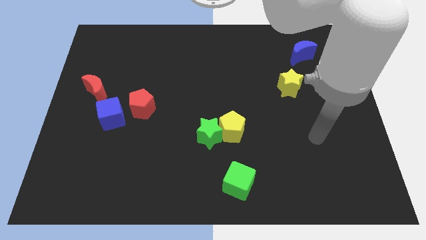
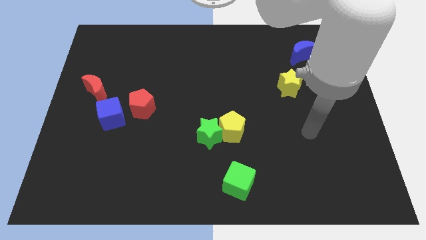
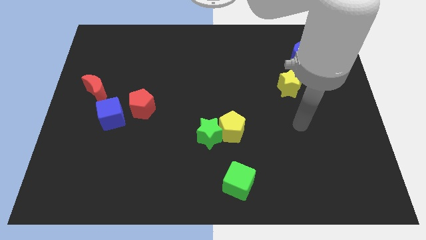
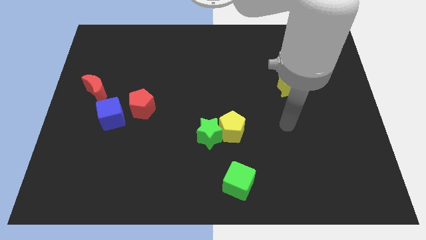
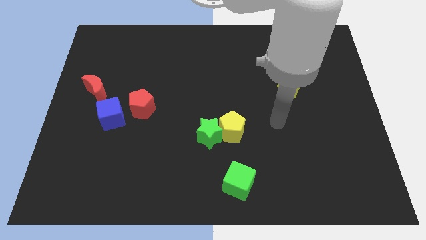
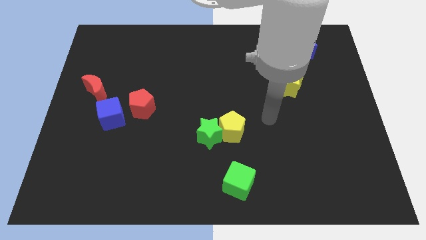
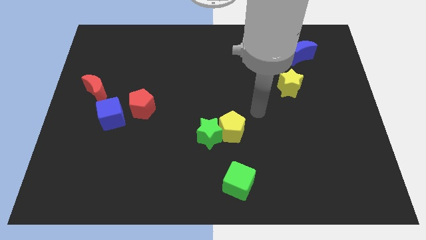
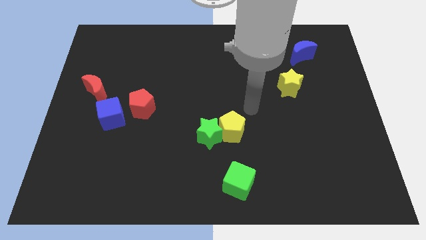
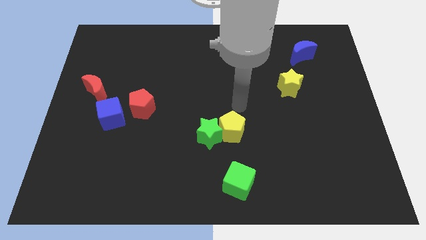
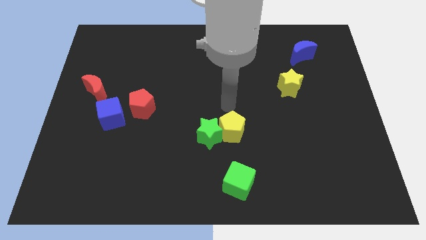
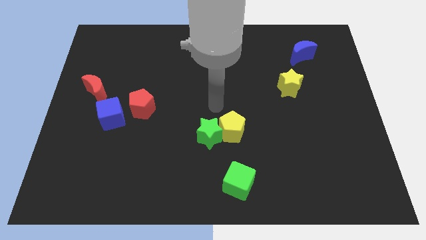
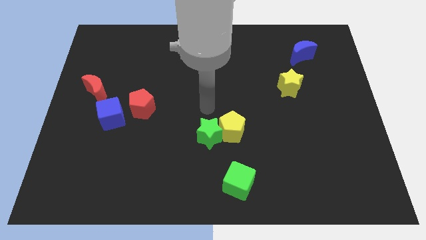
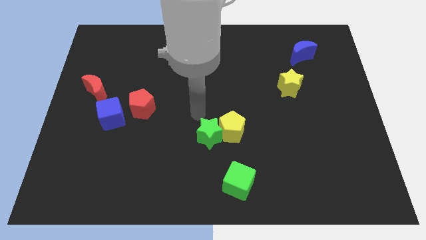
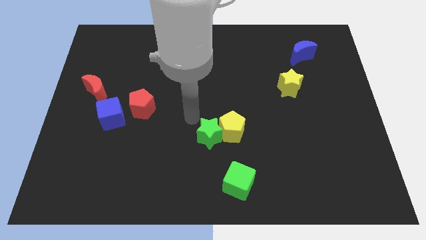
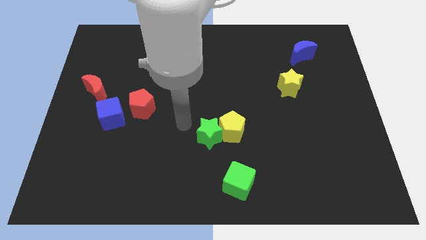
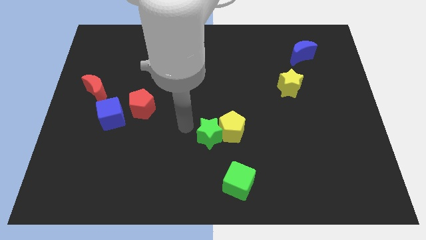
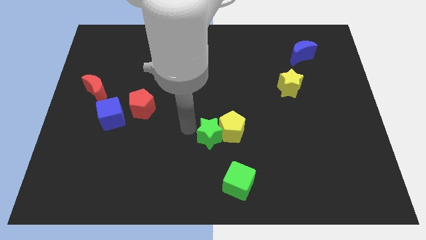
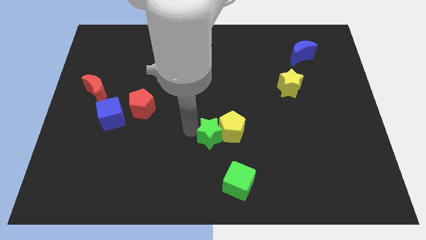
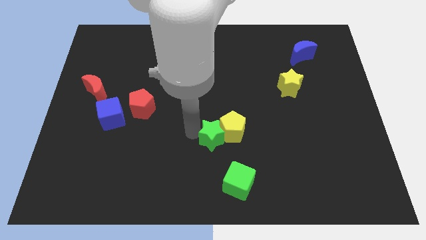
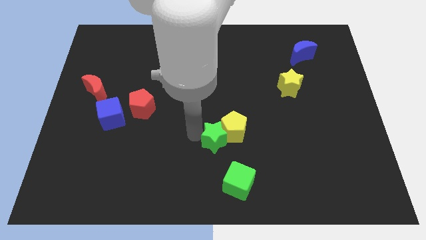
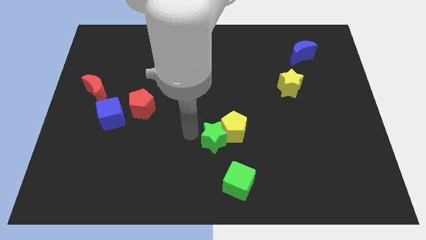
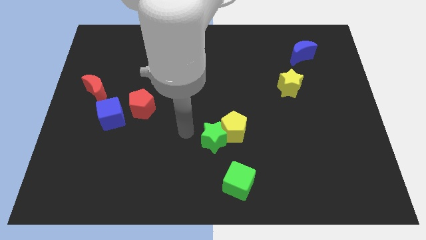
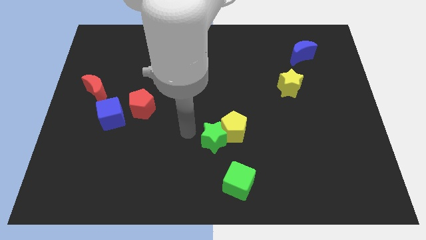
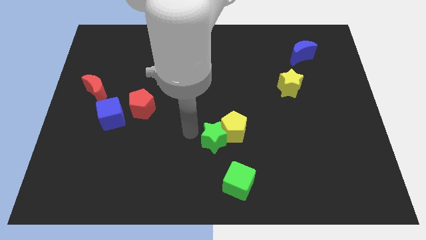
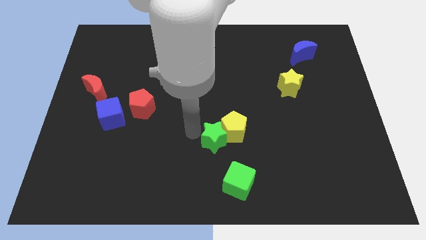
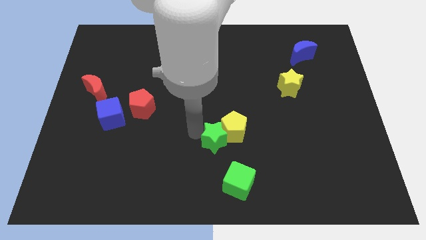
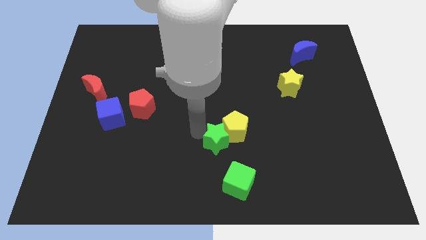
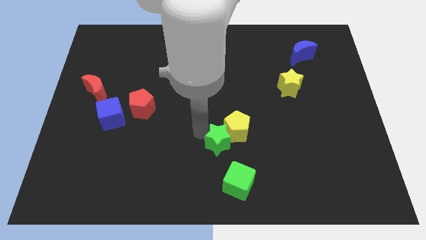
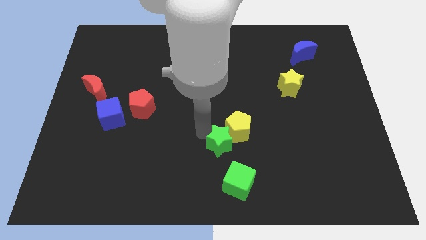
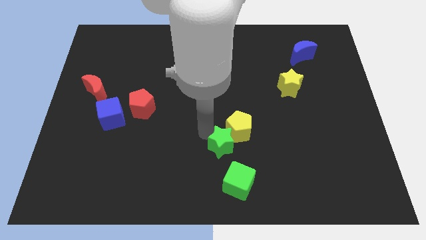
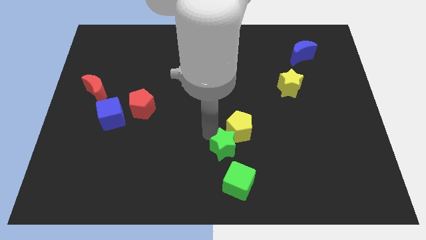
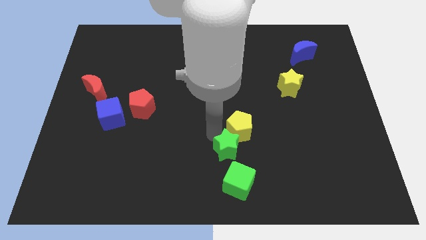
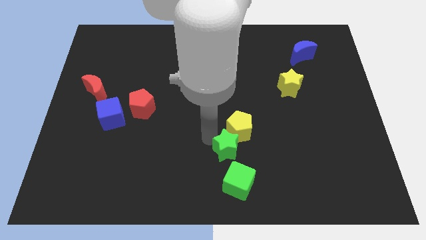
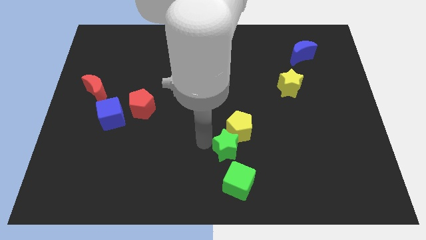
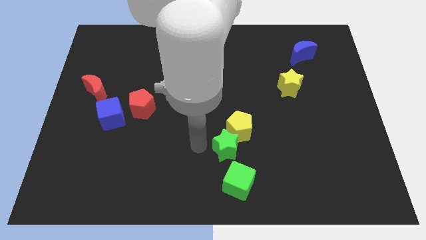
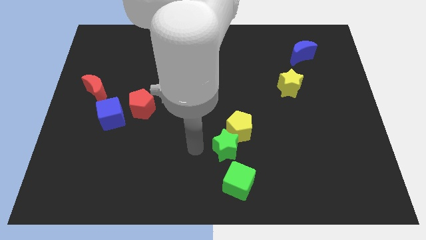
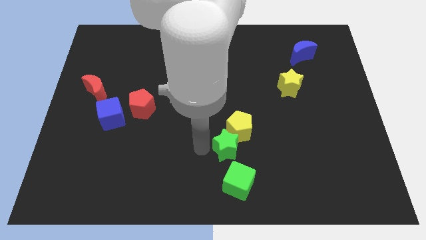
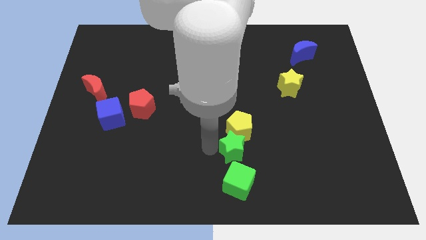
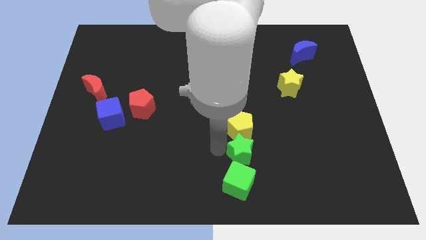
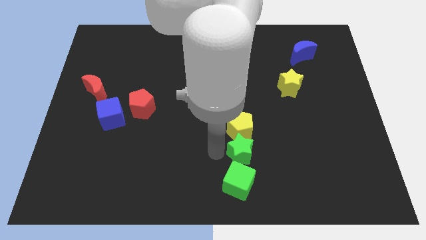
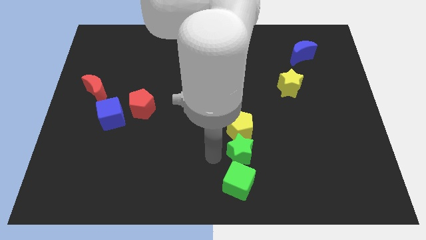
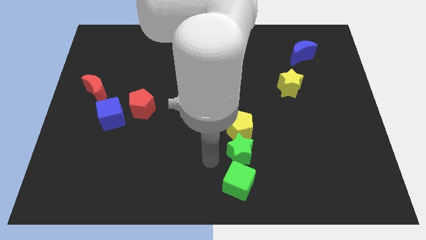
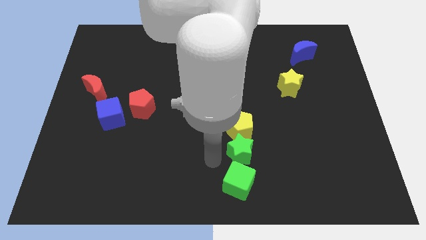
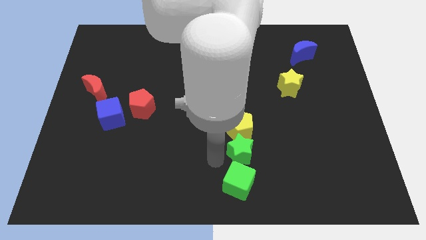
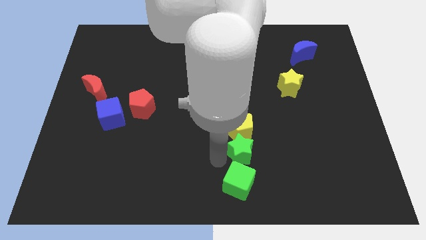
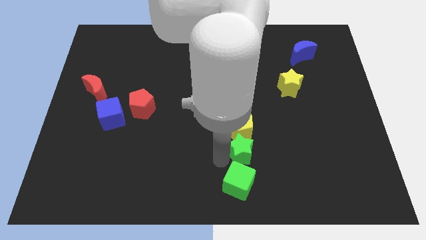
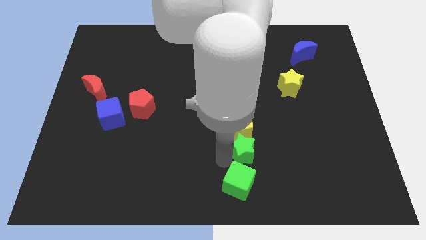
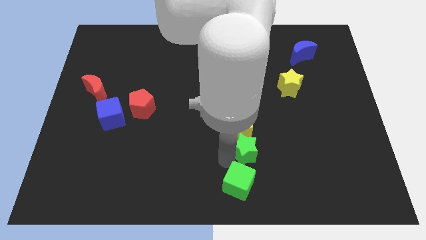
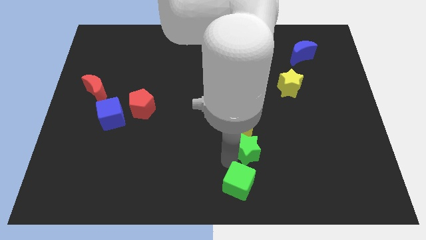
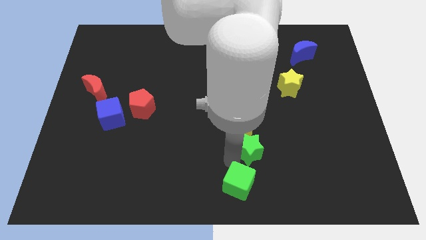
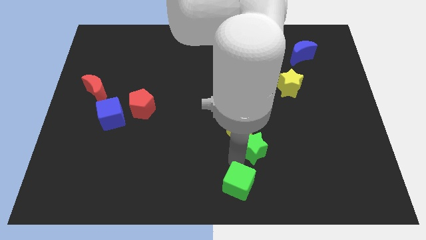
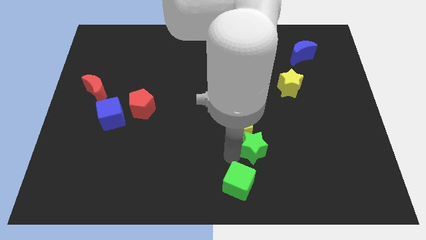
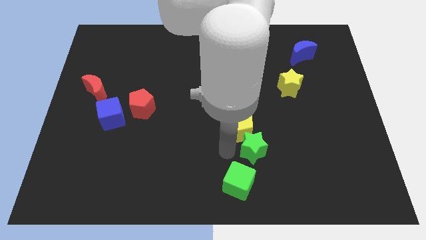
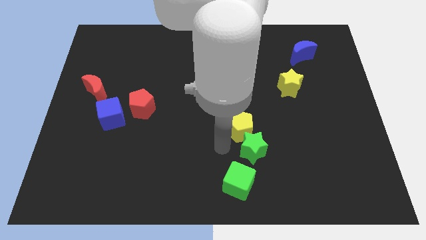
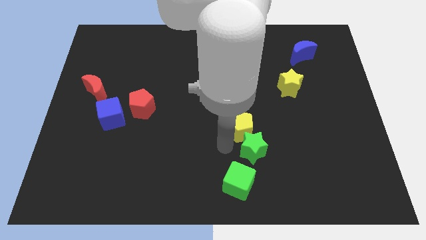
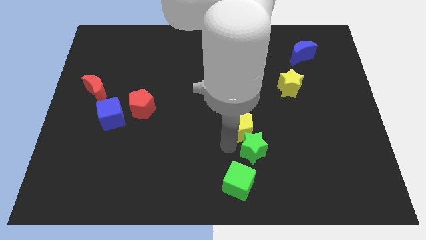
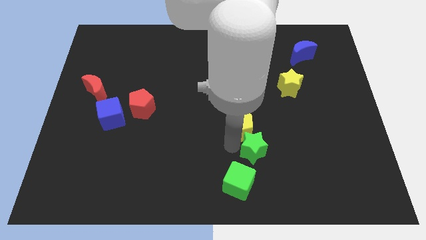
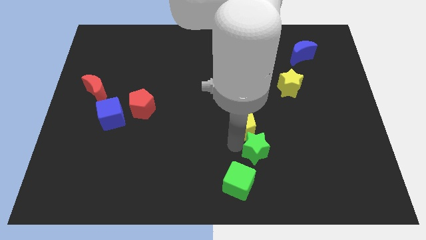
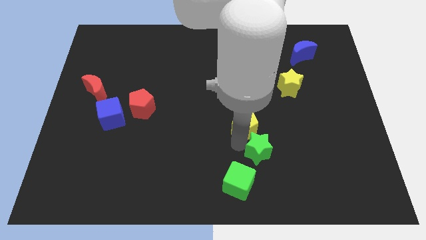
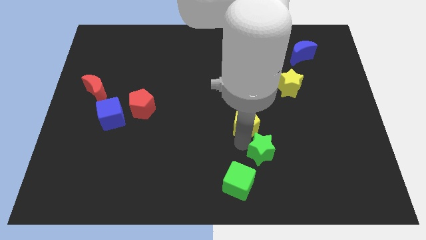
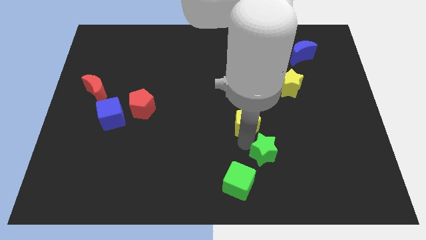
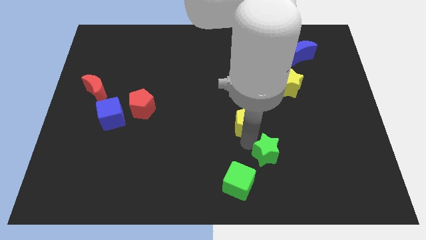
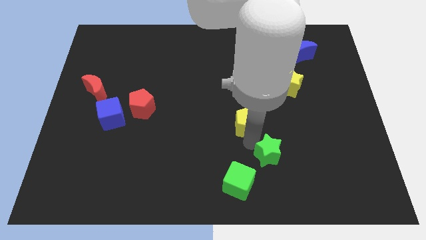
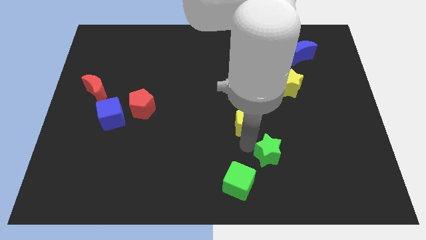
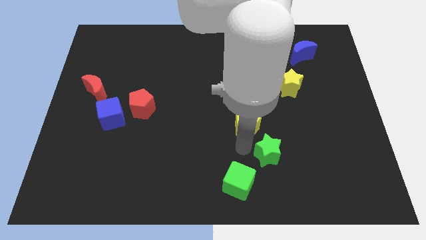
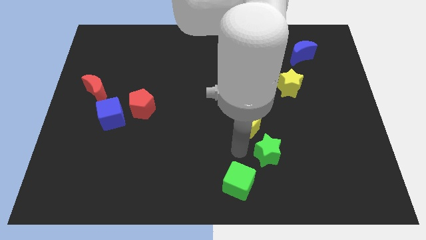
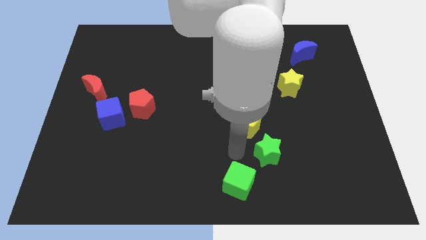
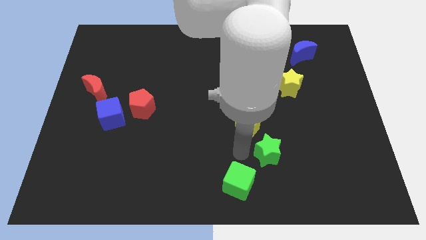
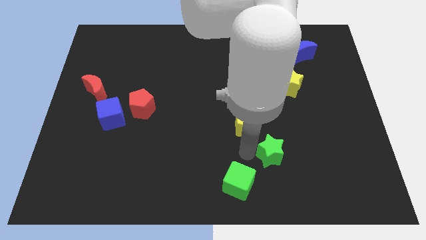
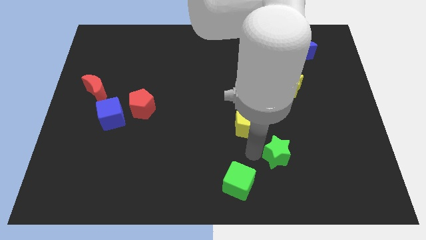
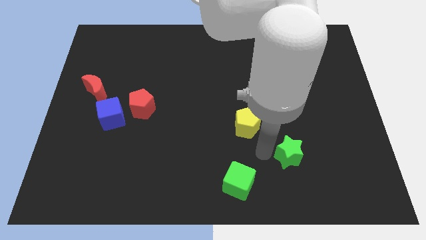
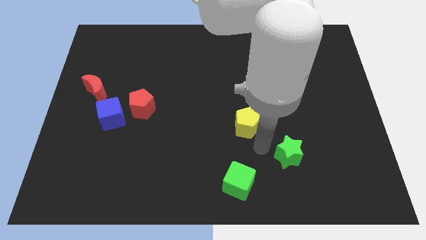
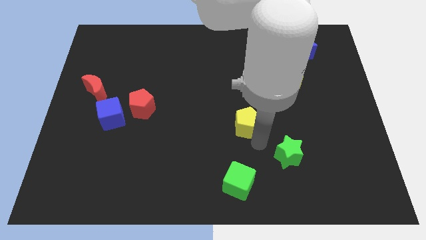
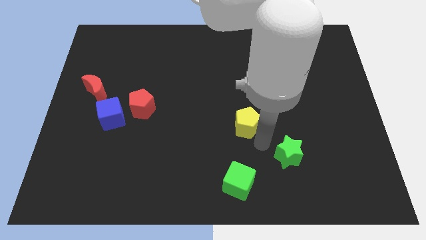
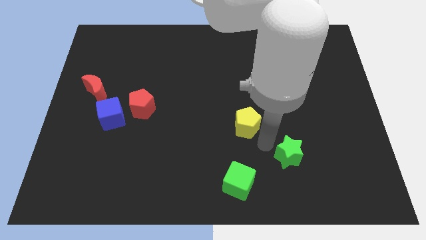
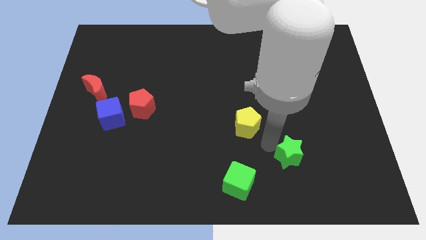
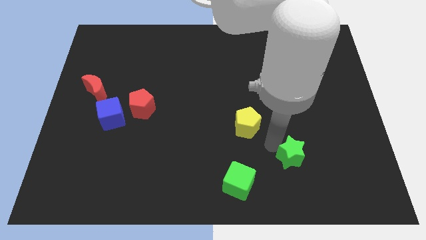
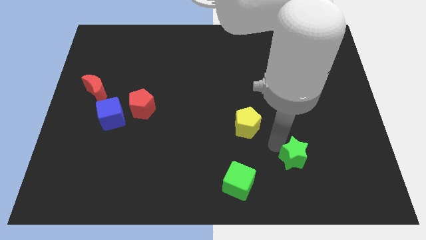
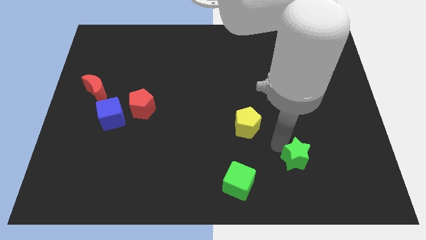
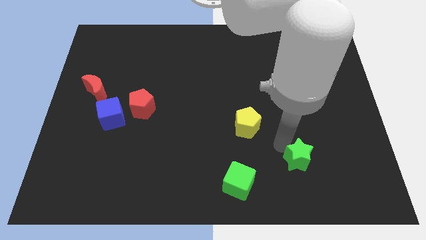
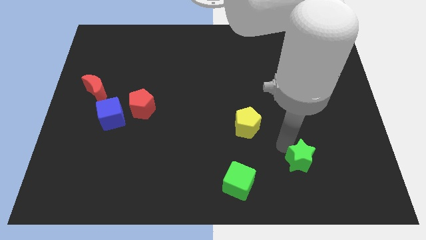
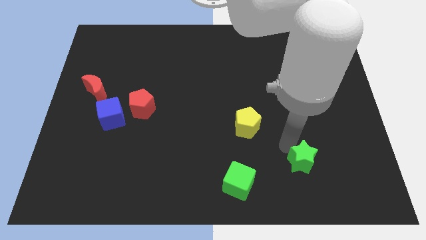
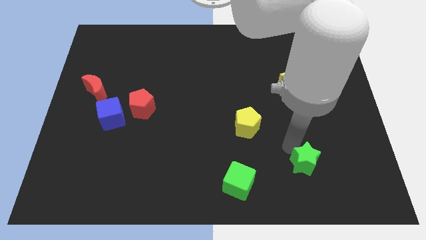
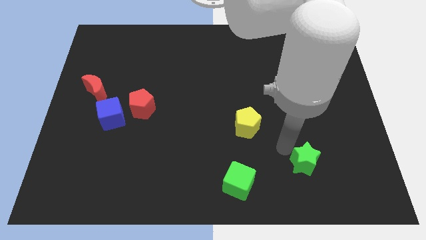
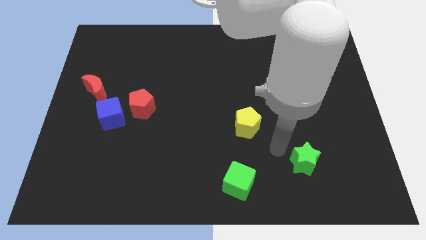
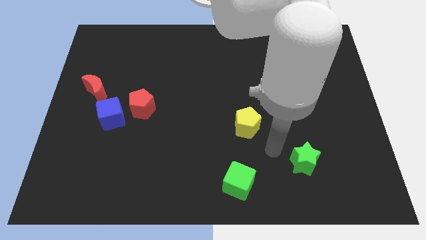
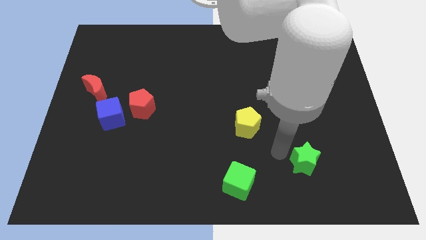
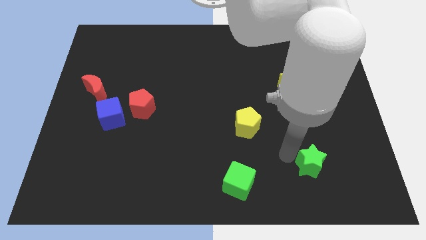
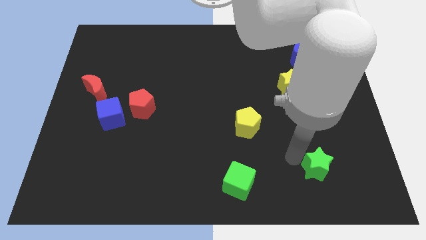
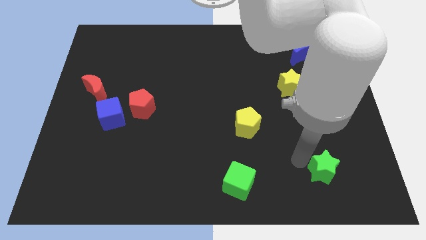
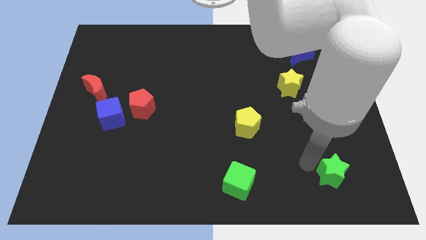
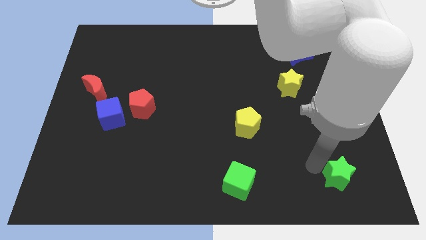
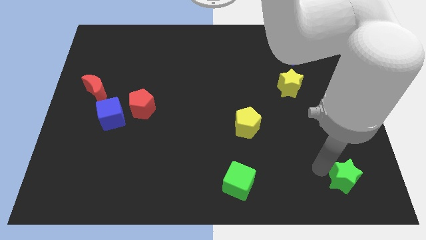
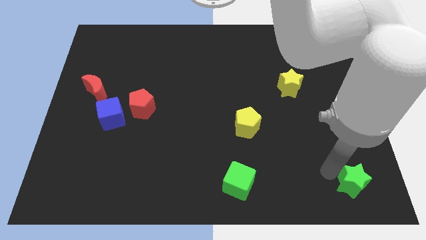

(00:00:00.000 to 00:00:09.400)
slide the green star to the bottom right of the board
